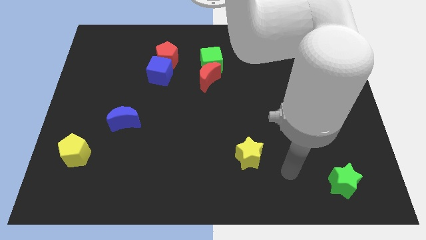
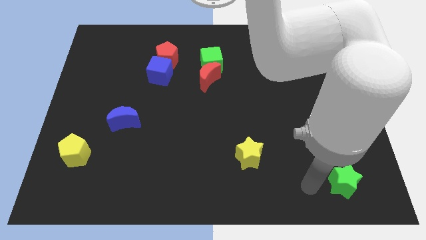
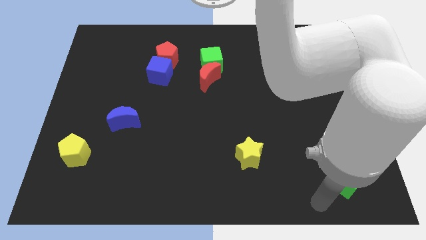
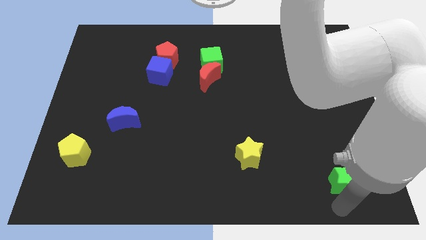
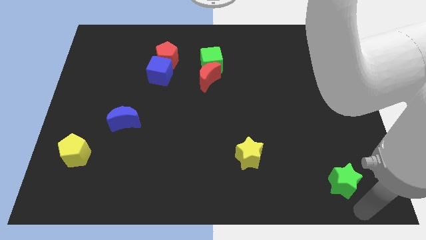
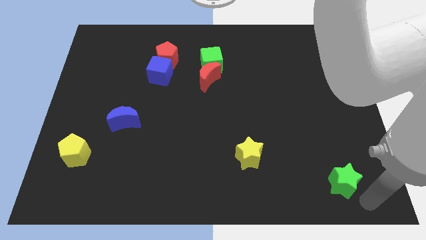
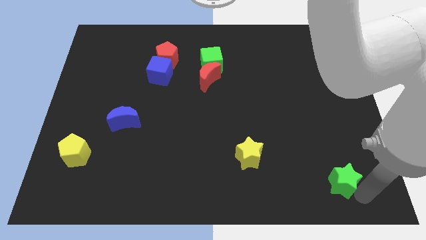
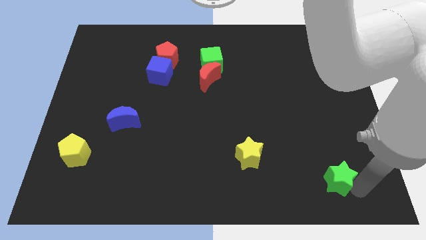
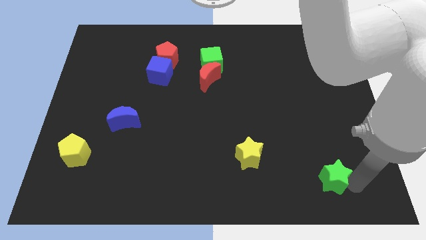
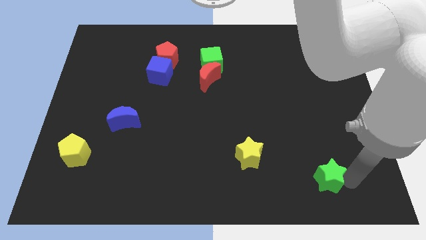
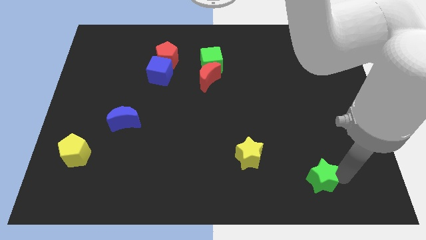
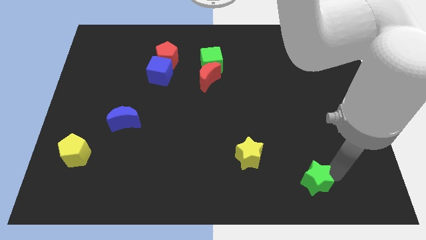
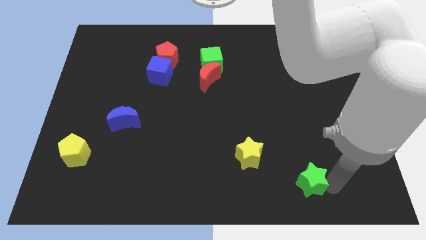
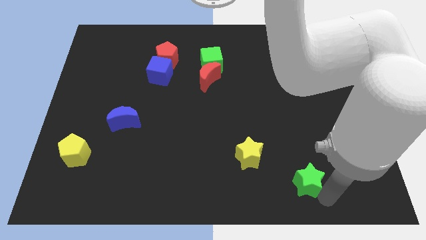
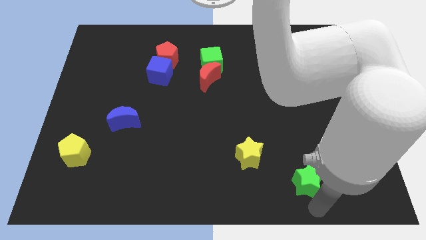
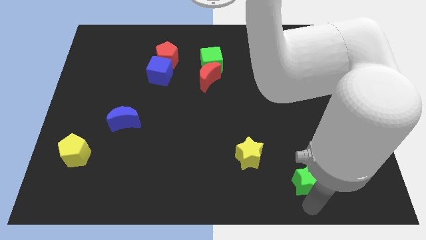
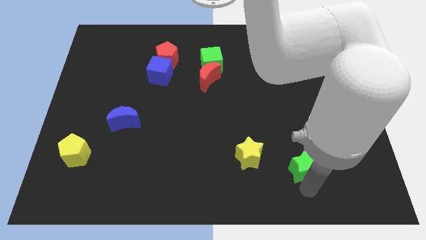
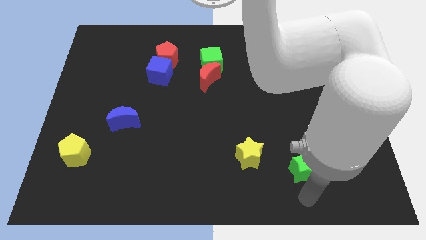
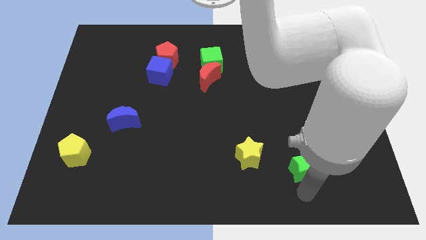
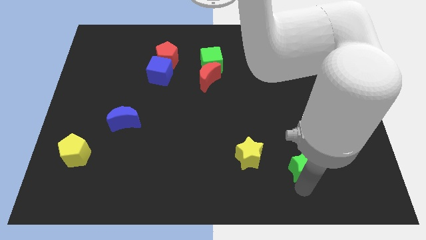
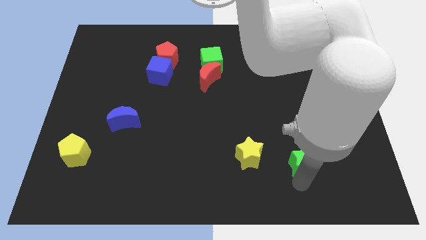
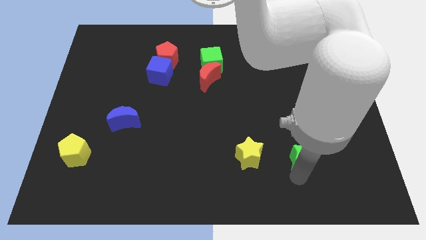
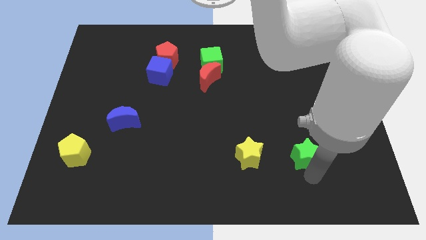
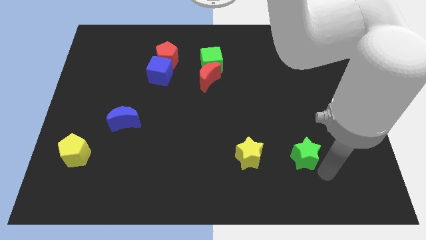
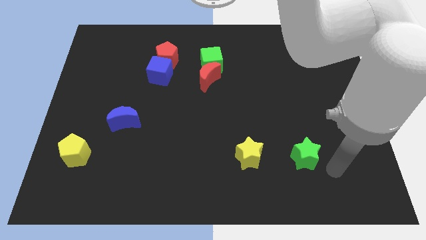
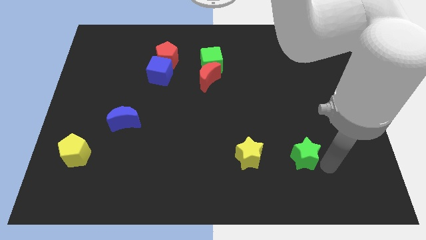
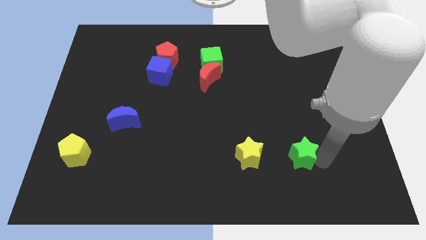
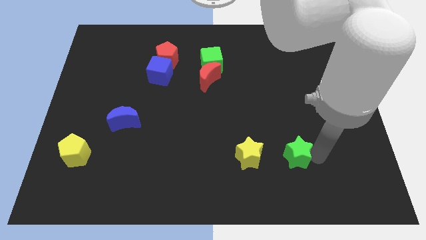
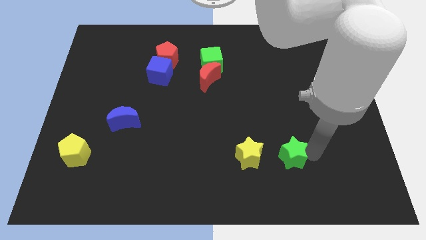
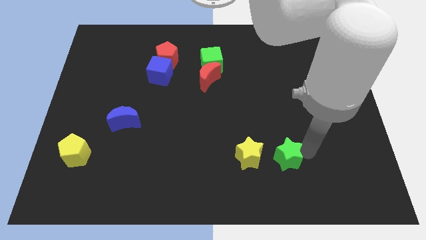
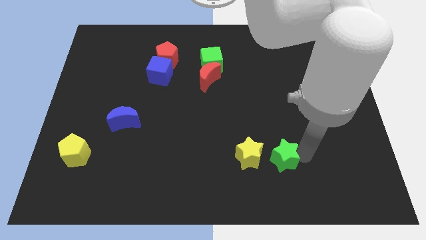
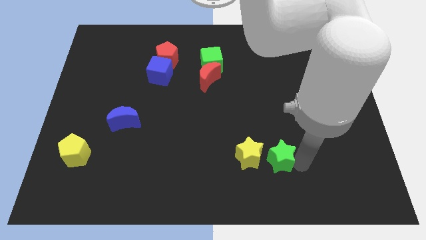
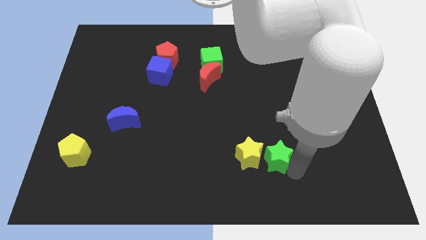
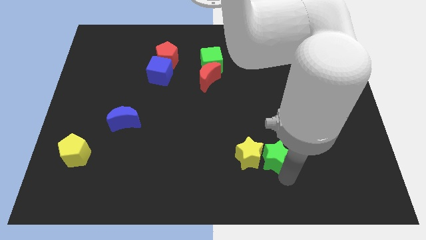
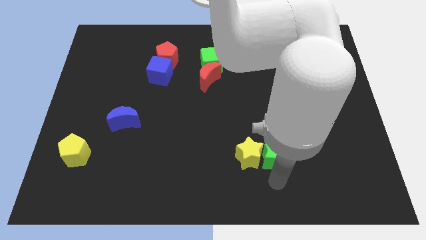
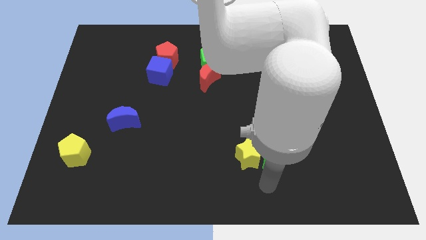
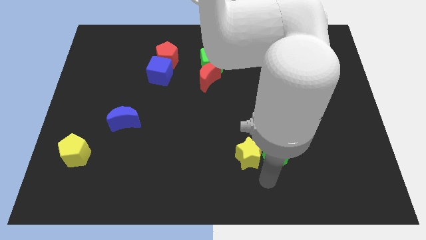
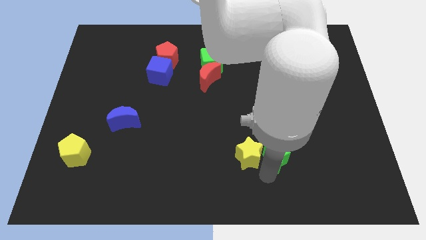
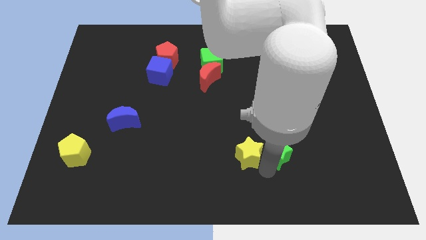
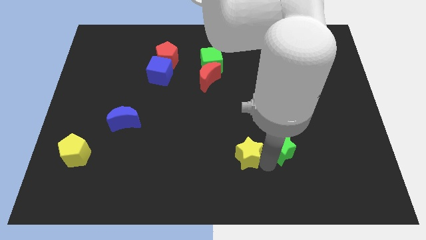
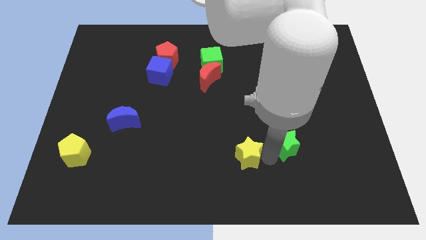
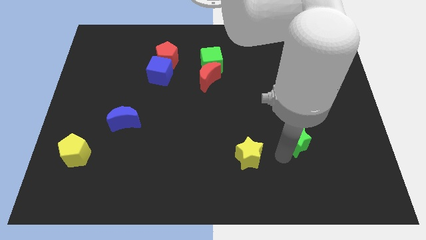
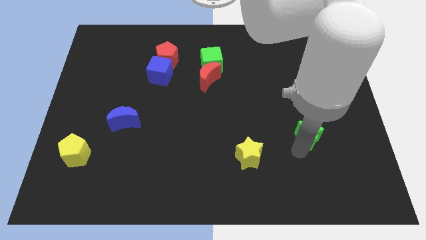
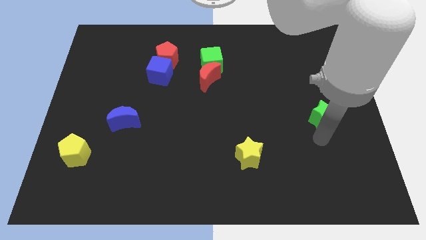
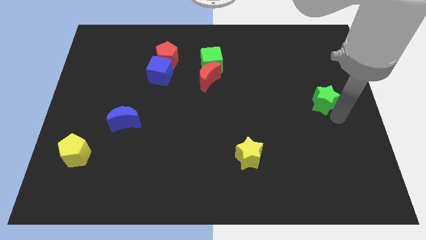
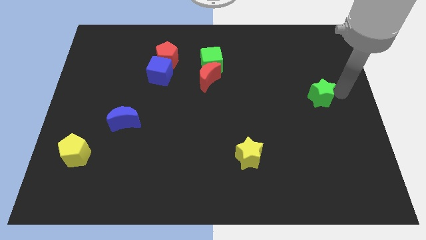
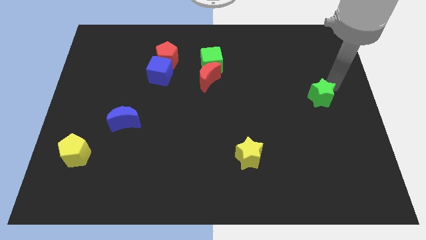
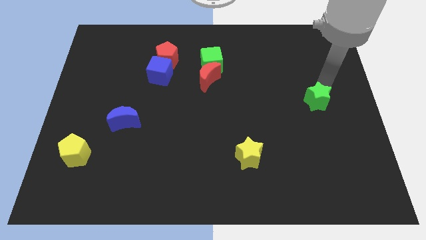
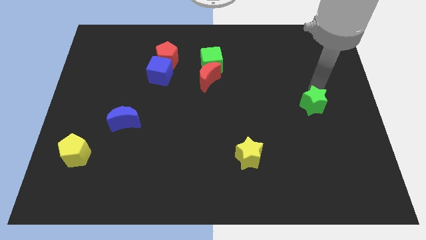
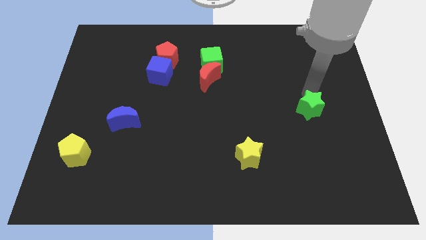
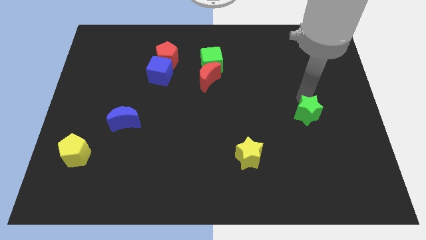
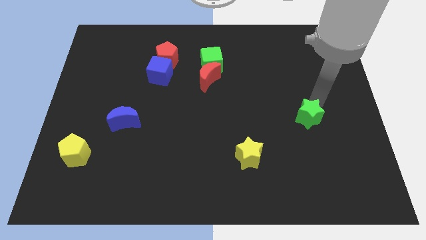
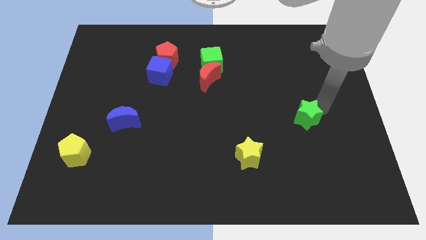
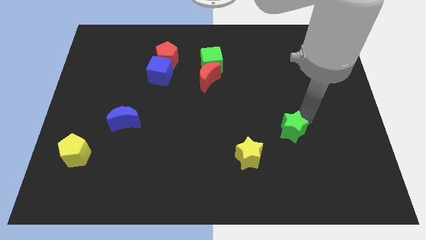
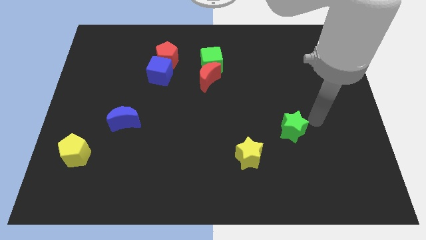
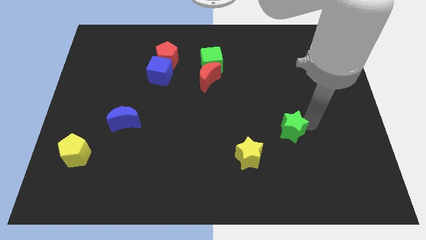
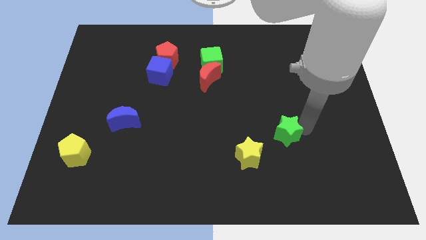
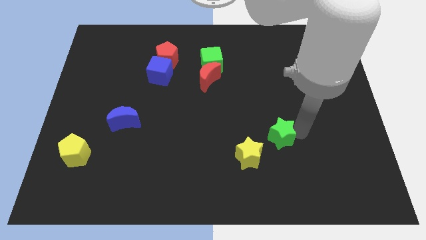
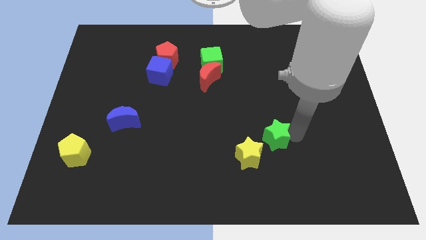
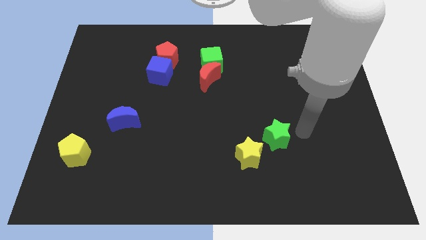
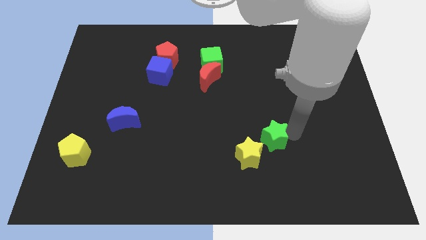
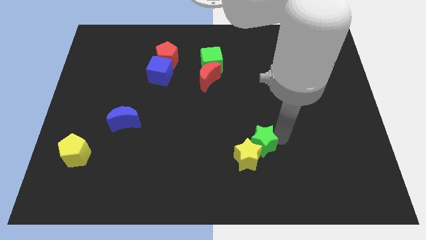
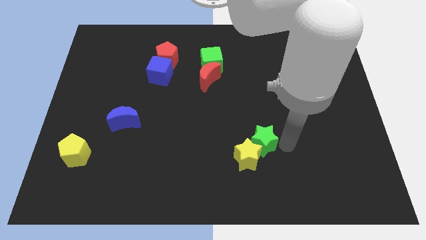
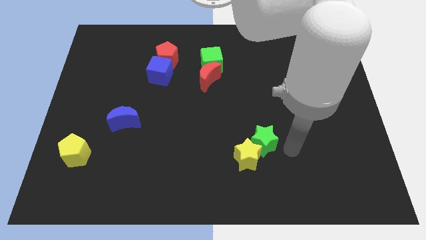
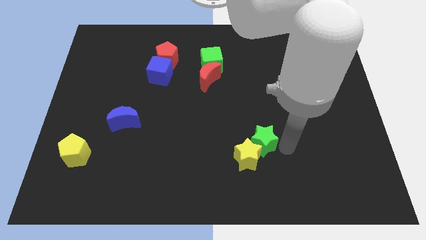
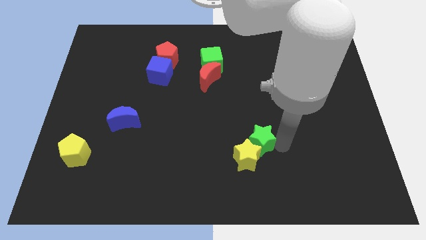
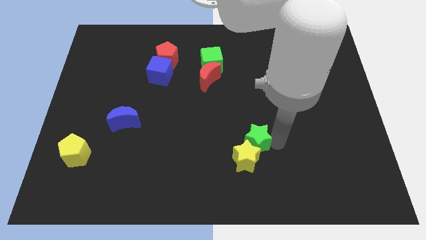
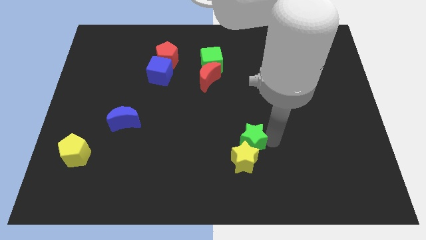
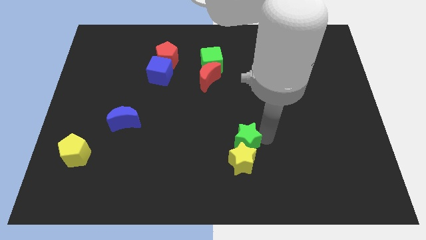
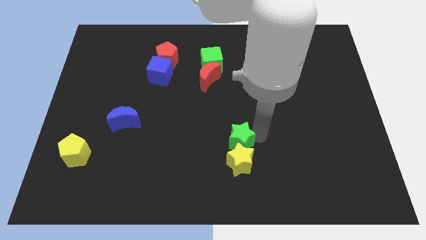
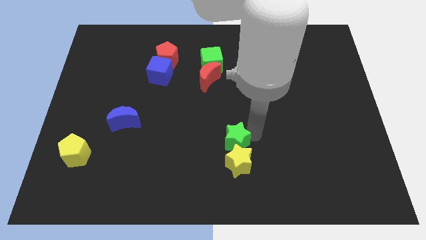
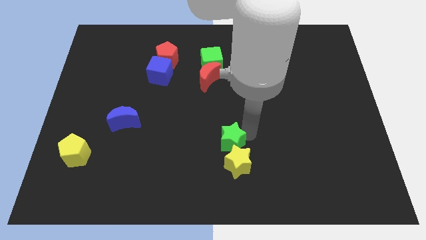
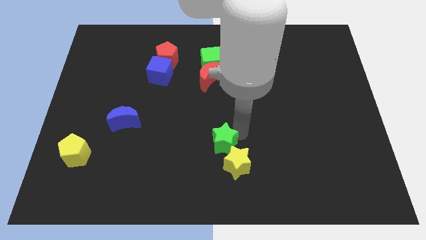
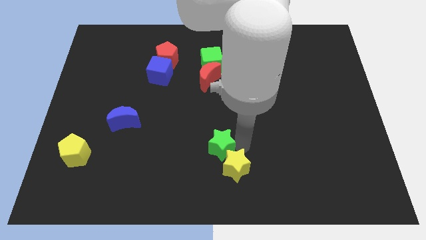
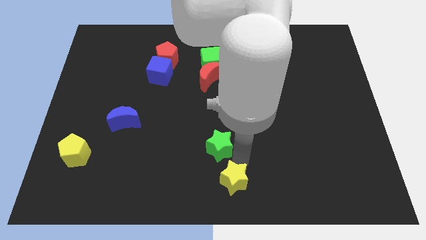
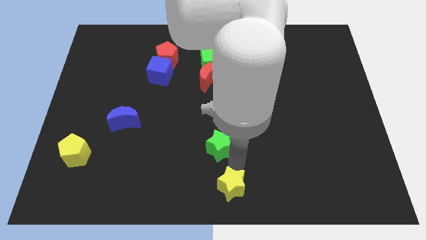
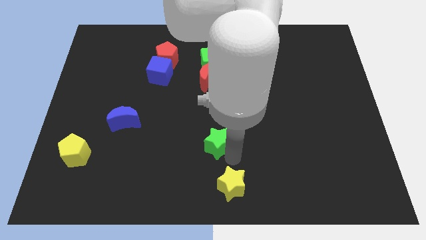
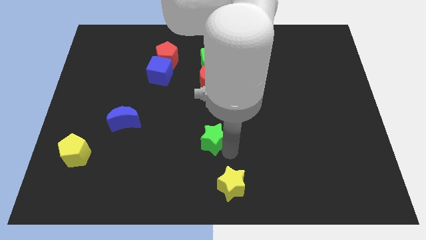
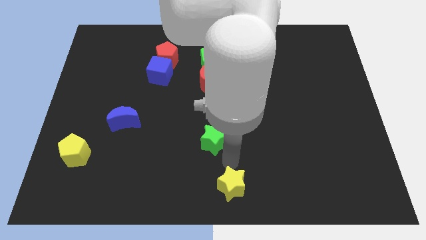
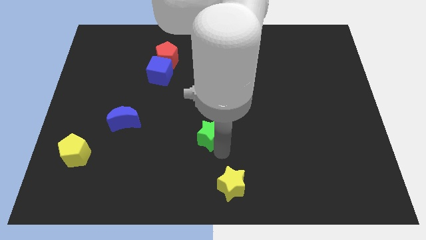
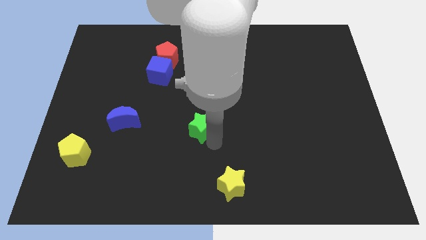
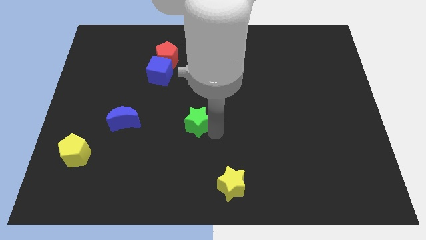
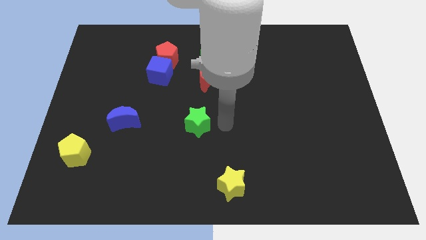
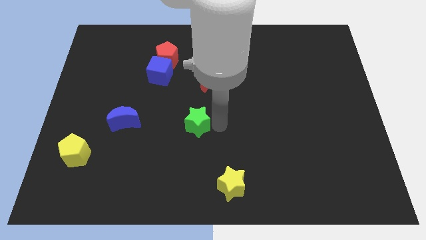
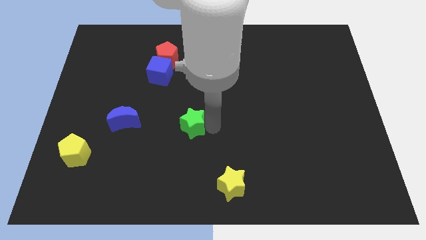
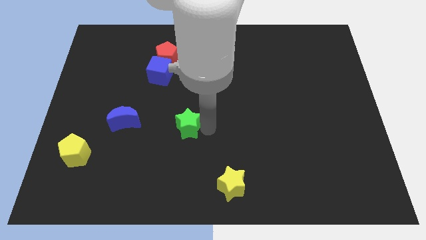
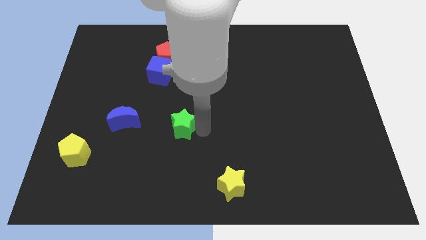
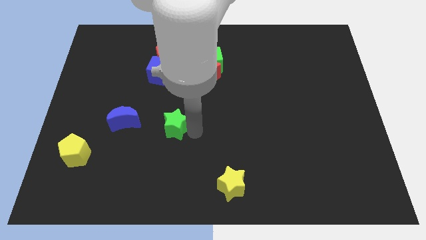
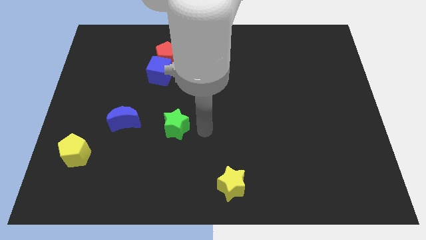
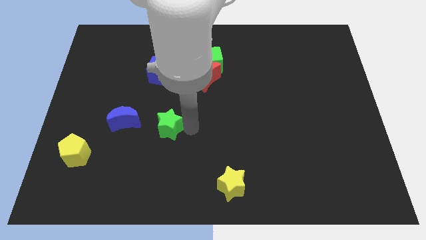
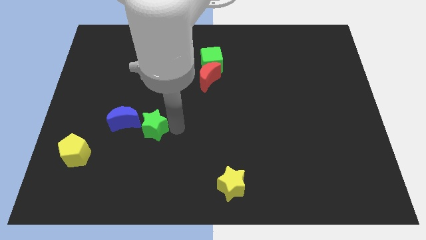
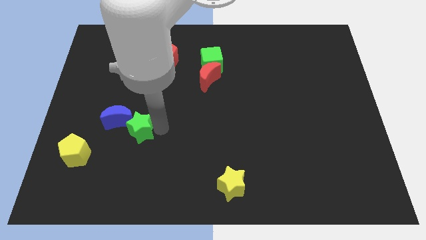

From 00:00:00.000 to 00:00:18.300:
put the green star close to the blue moon
